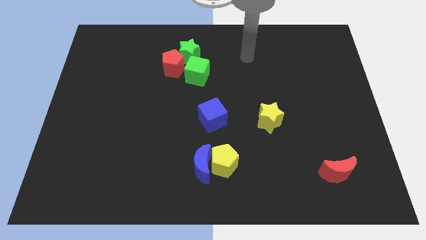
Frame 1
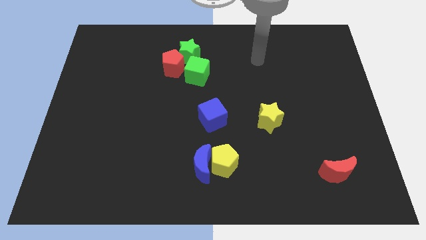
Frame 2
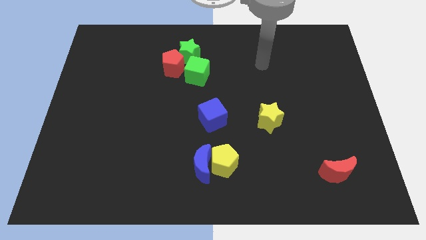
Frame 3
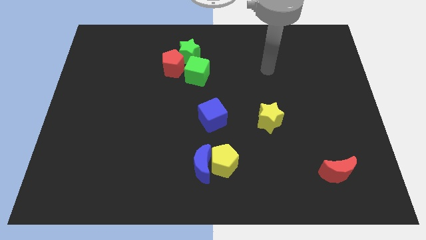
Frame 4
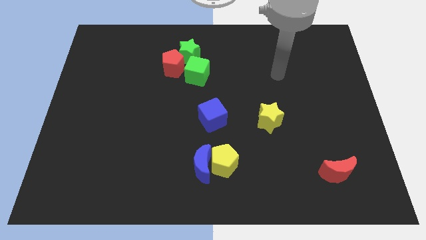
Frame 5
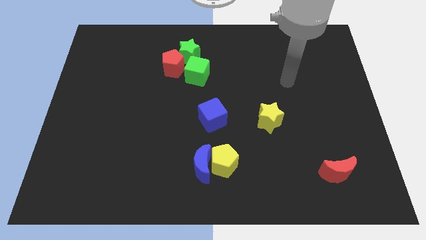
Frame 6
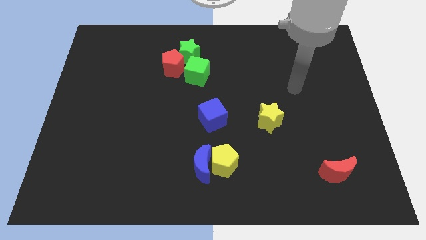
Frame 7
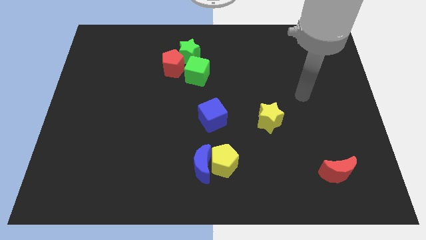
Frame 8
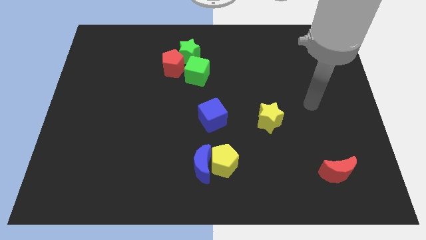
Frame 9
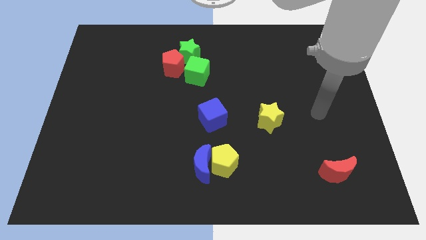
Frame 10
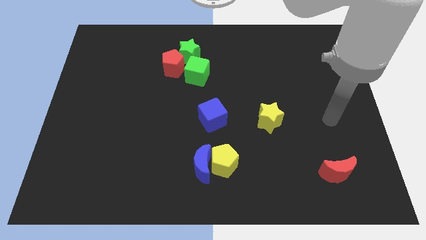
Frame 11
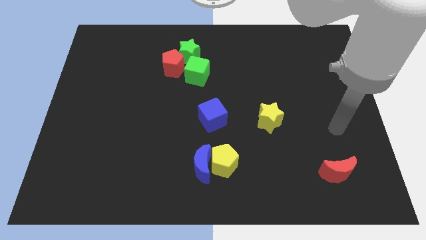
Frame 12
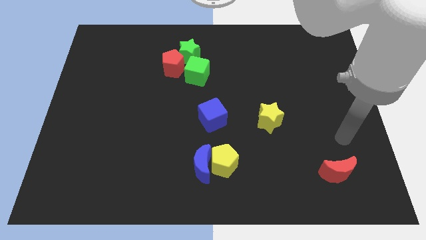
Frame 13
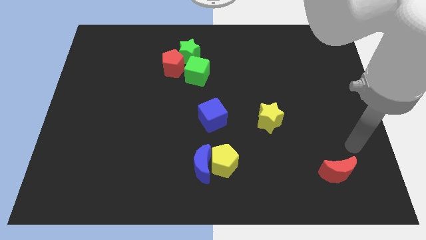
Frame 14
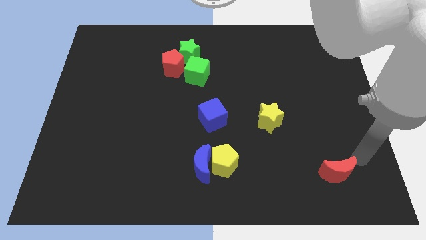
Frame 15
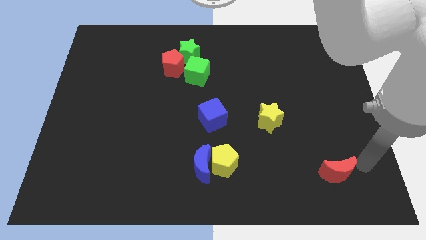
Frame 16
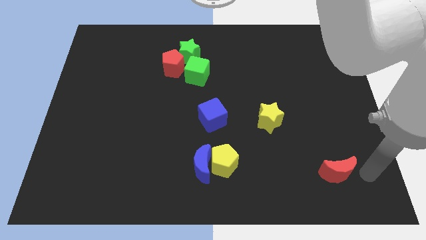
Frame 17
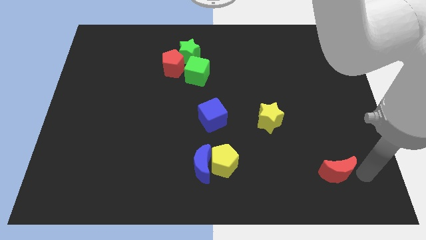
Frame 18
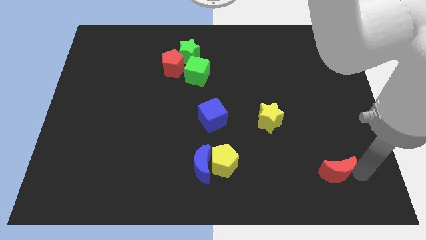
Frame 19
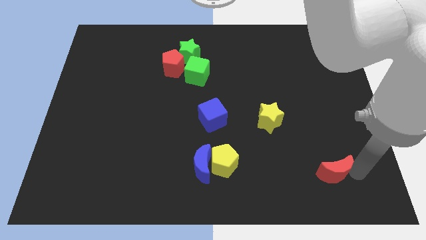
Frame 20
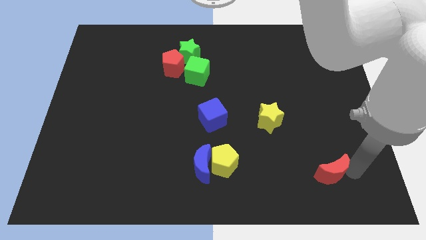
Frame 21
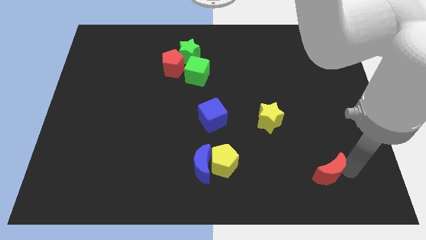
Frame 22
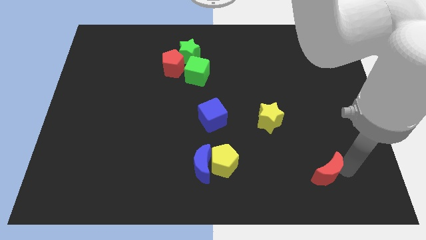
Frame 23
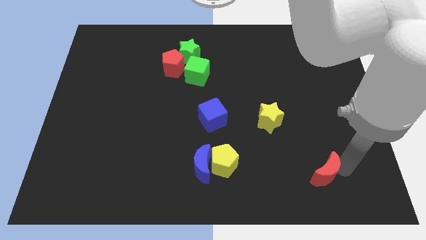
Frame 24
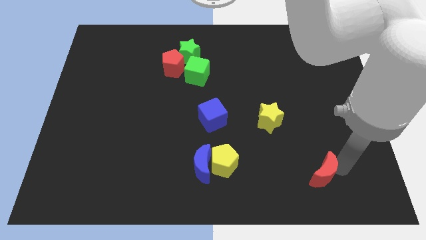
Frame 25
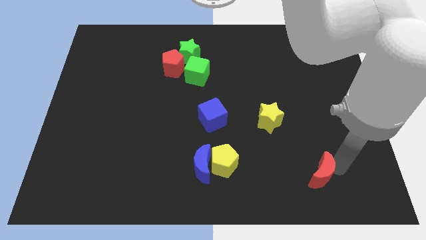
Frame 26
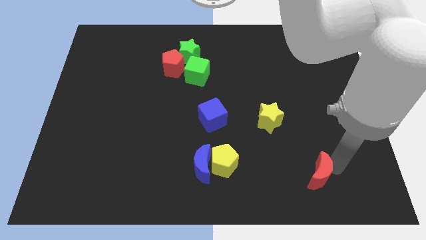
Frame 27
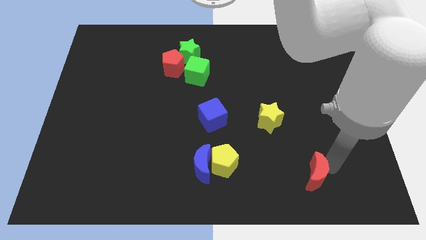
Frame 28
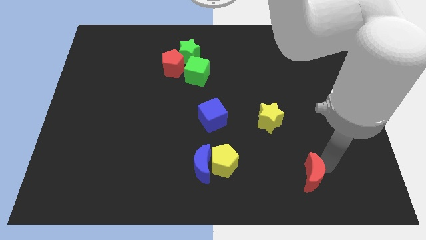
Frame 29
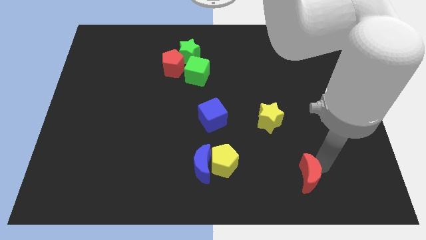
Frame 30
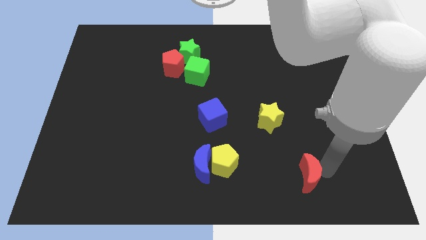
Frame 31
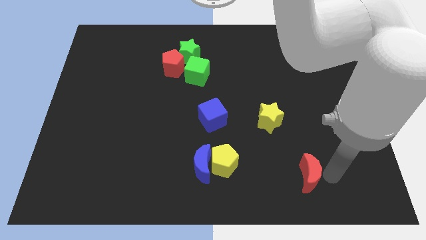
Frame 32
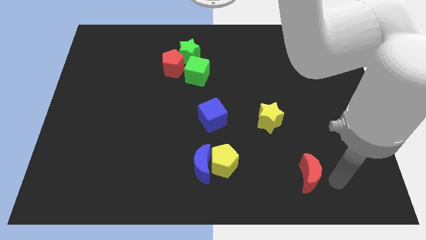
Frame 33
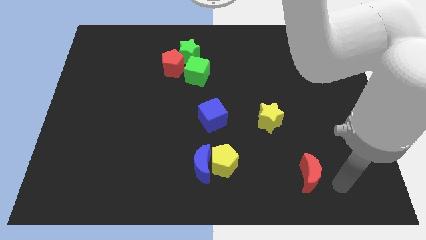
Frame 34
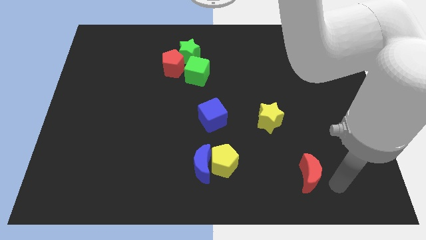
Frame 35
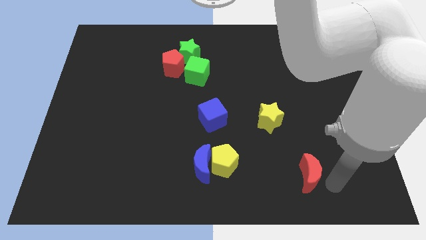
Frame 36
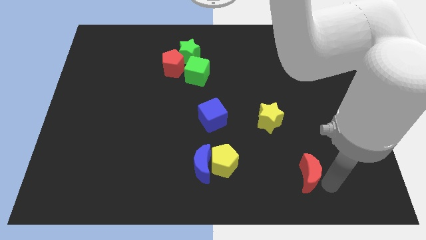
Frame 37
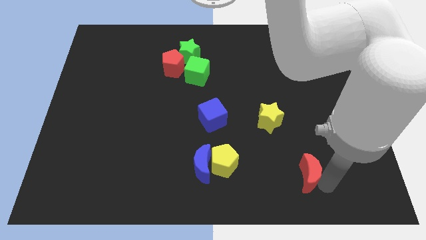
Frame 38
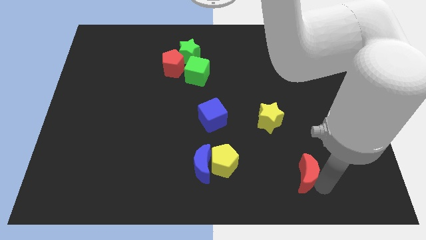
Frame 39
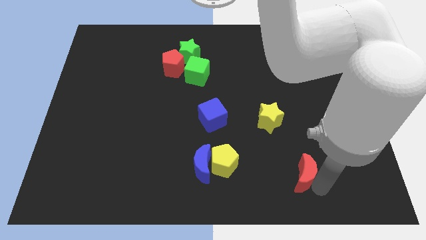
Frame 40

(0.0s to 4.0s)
push the red moon left somewhat

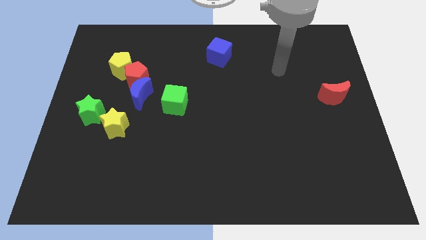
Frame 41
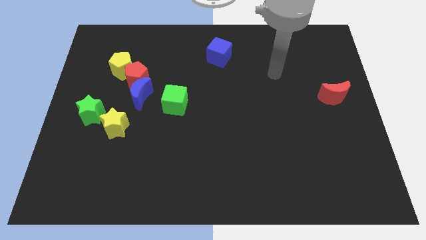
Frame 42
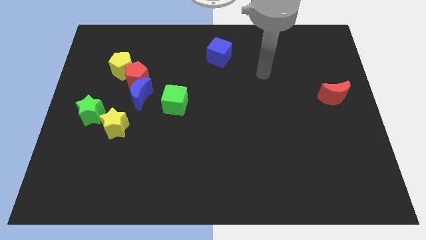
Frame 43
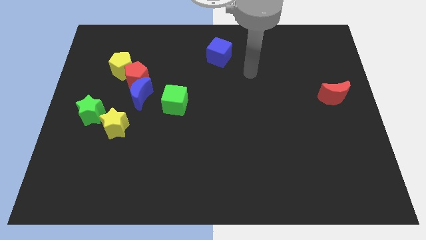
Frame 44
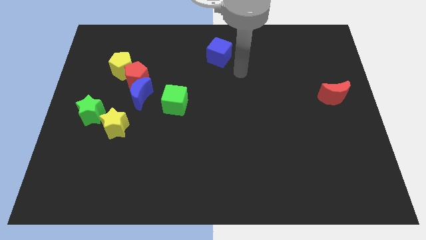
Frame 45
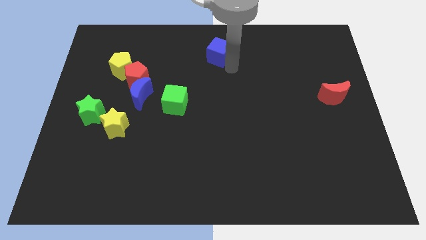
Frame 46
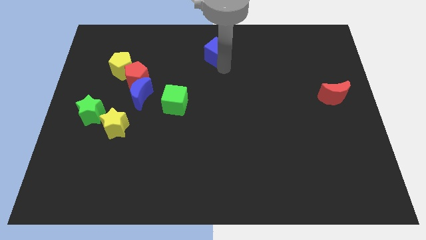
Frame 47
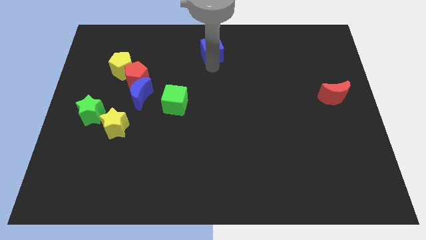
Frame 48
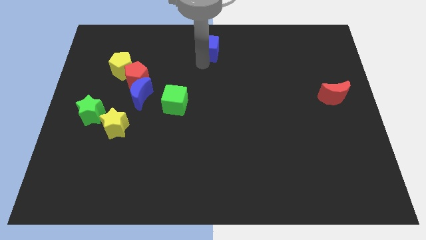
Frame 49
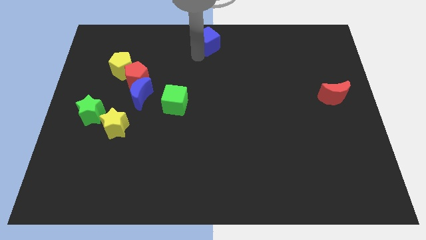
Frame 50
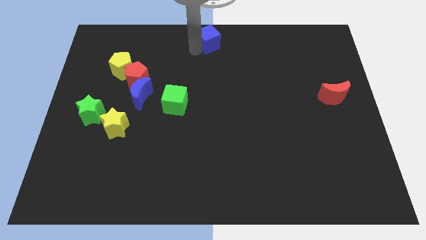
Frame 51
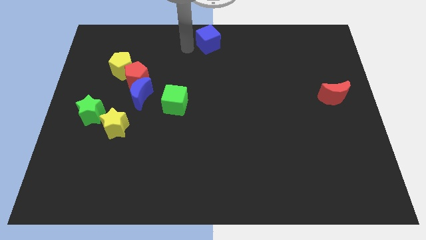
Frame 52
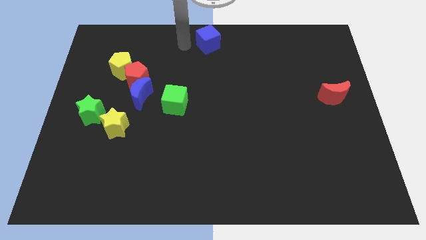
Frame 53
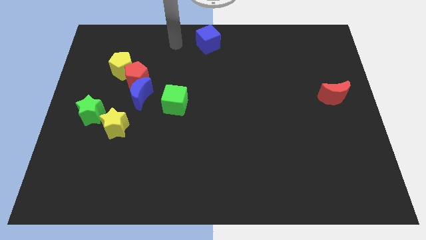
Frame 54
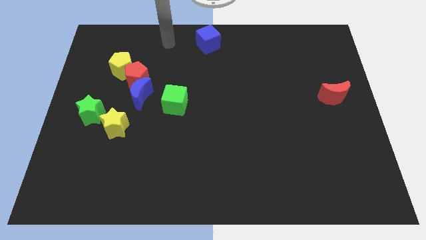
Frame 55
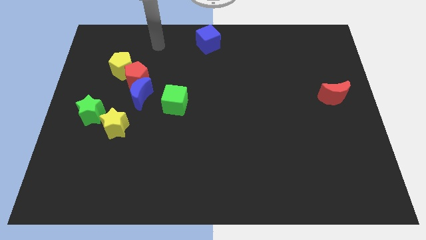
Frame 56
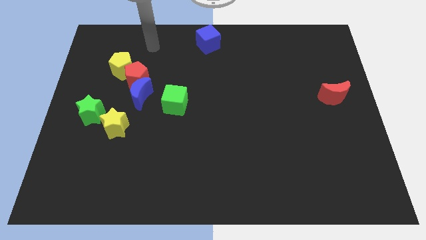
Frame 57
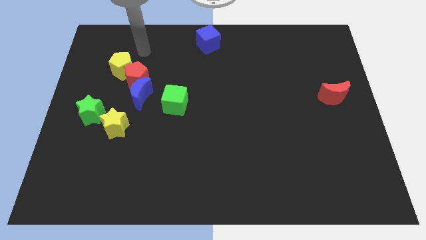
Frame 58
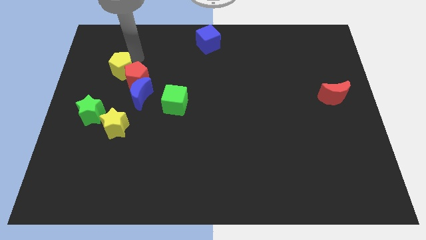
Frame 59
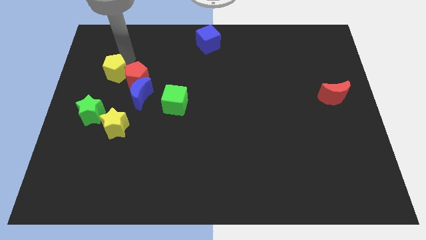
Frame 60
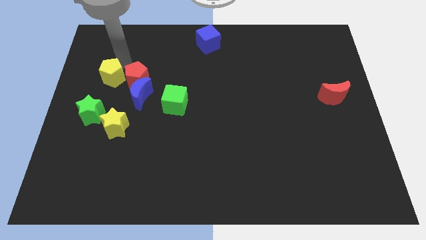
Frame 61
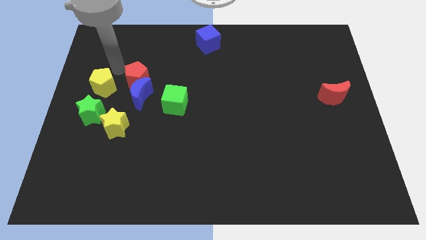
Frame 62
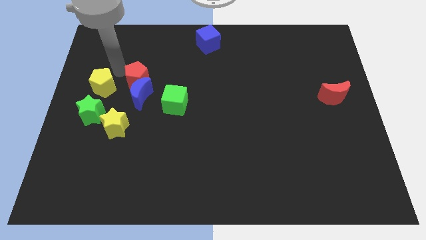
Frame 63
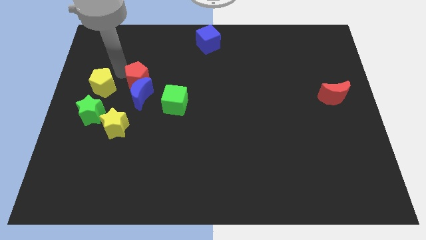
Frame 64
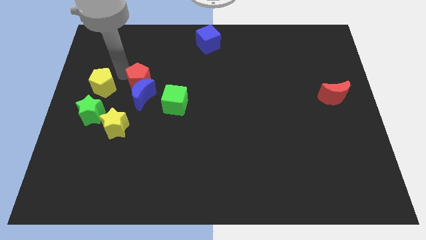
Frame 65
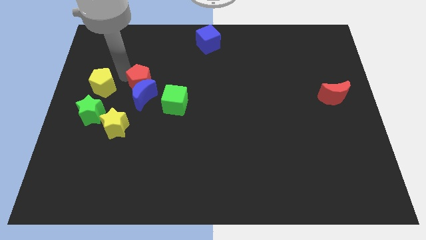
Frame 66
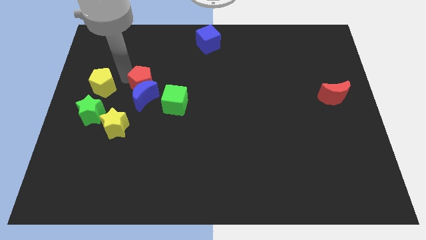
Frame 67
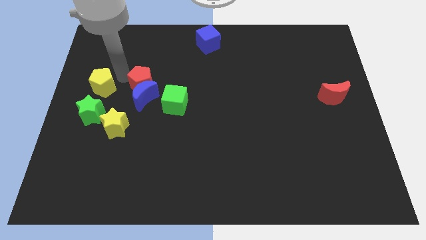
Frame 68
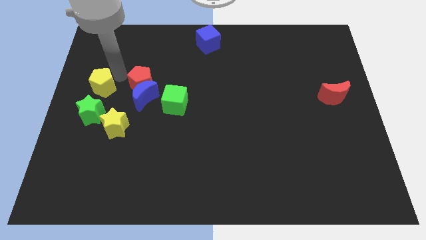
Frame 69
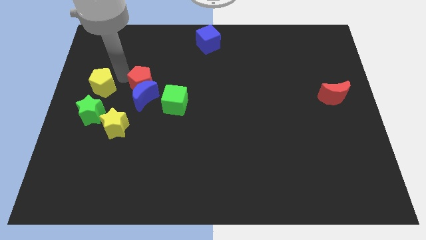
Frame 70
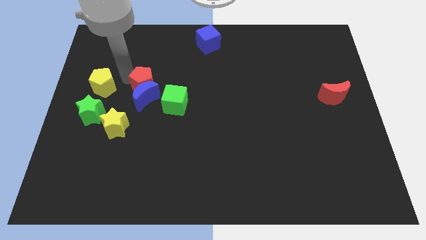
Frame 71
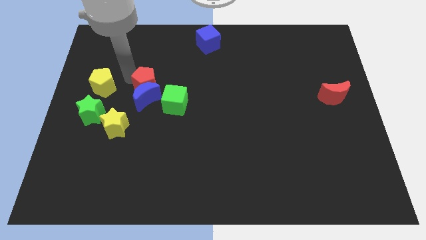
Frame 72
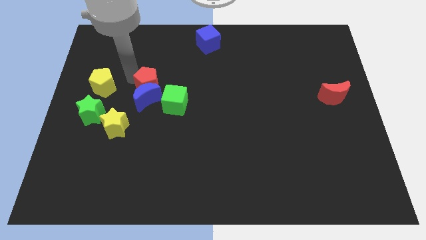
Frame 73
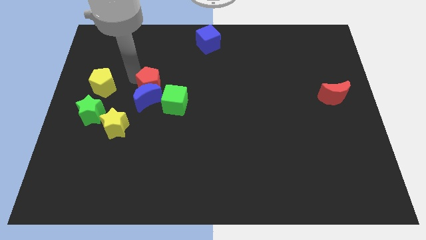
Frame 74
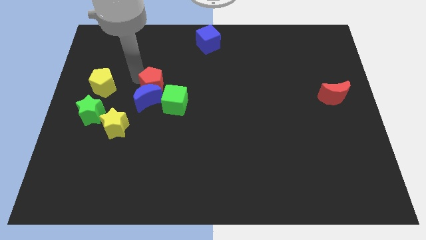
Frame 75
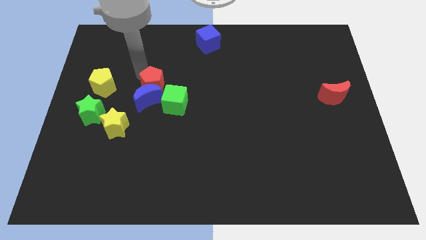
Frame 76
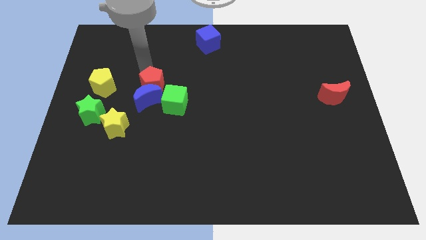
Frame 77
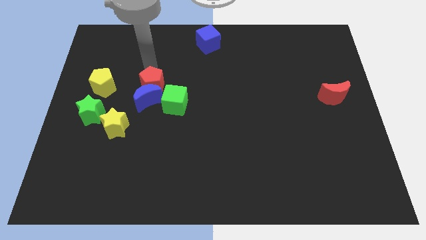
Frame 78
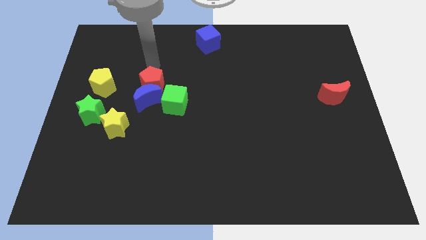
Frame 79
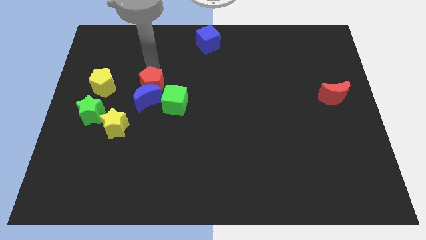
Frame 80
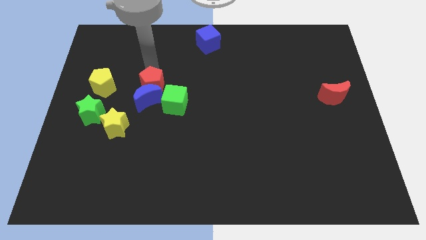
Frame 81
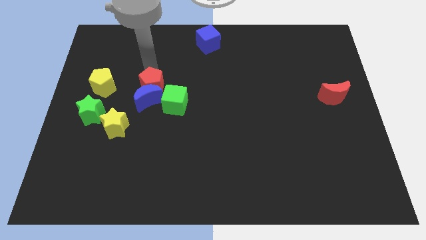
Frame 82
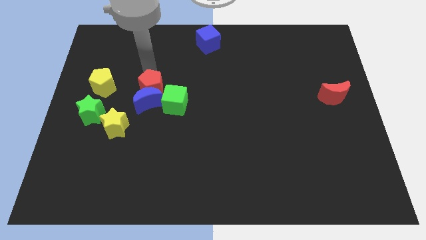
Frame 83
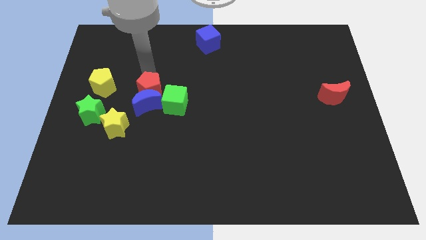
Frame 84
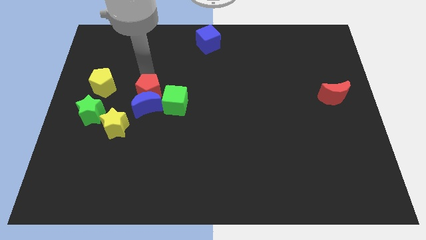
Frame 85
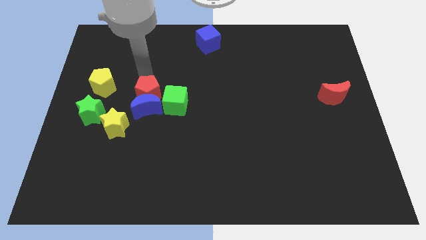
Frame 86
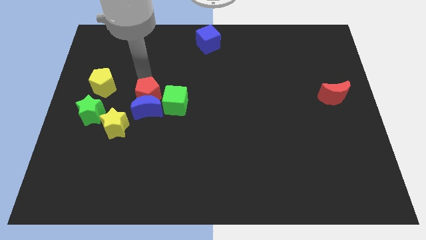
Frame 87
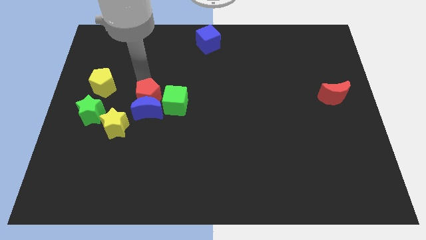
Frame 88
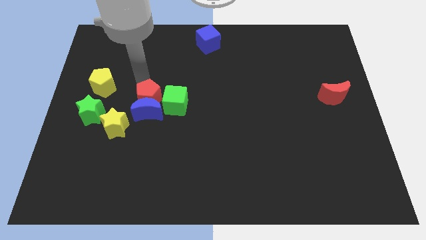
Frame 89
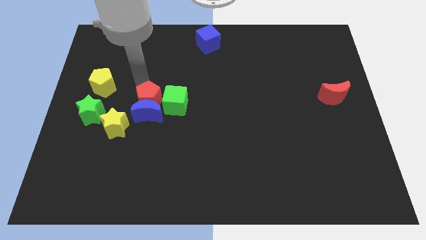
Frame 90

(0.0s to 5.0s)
slide the red pentagon diagonally downwards and to the right a little
